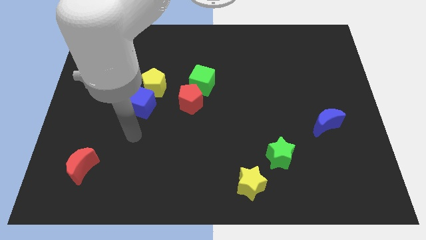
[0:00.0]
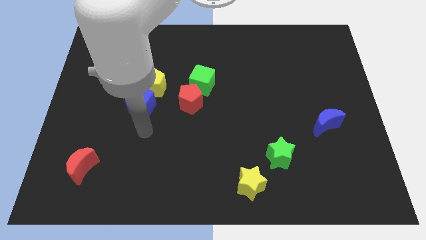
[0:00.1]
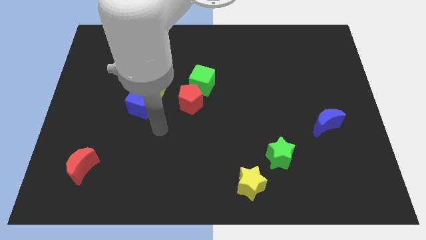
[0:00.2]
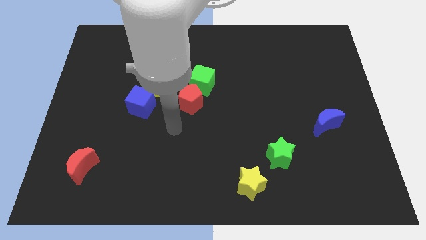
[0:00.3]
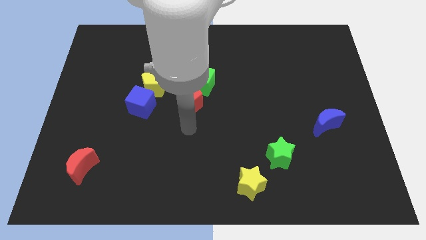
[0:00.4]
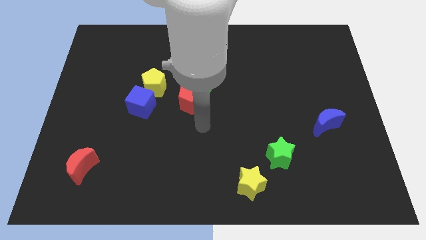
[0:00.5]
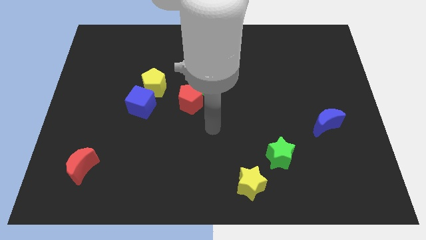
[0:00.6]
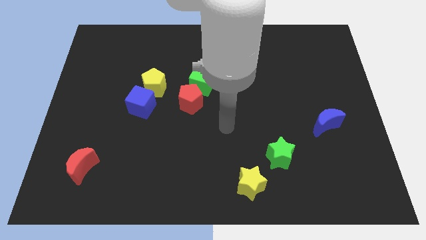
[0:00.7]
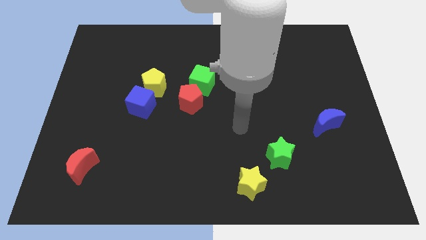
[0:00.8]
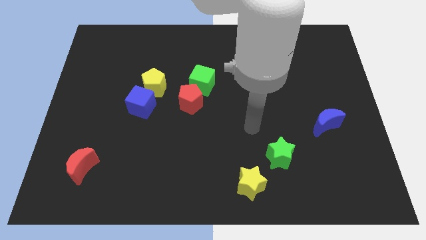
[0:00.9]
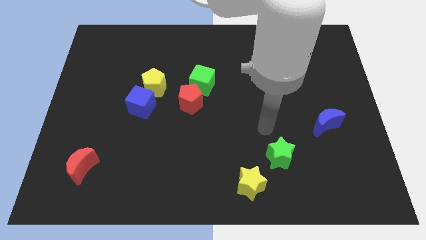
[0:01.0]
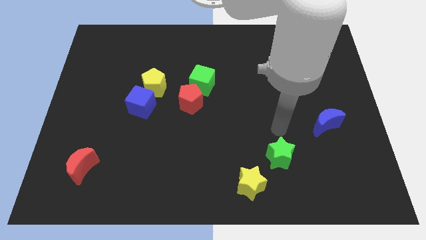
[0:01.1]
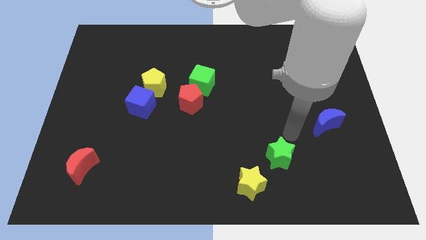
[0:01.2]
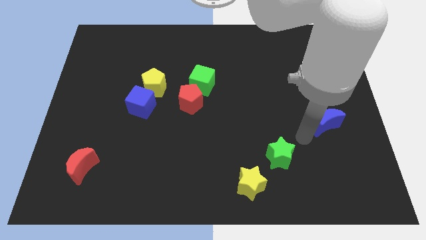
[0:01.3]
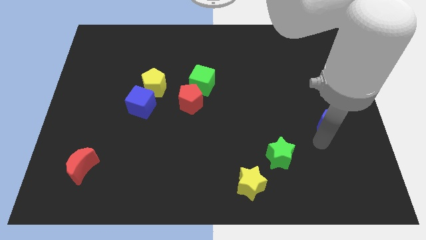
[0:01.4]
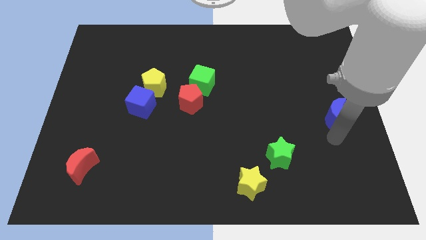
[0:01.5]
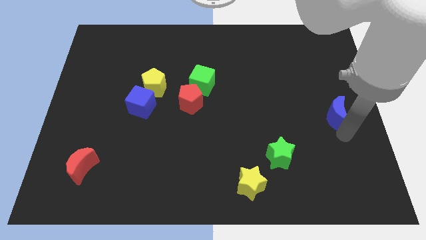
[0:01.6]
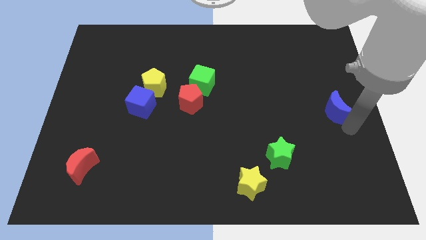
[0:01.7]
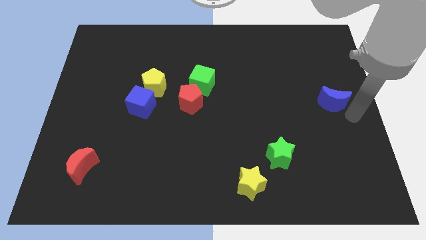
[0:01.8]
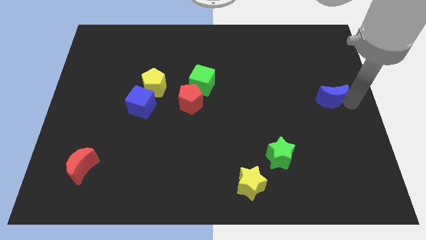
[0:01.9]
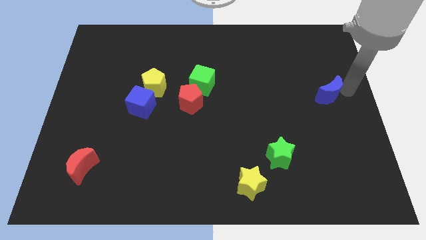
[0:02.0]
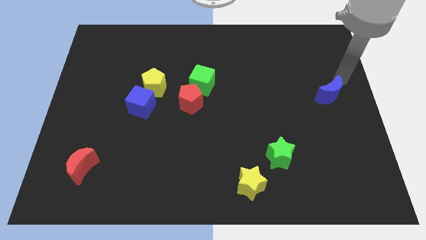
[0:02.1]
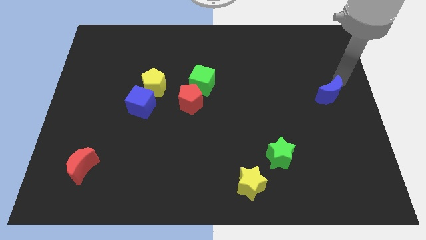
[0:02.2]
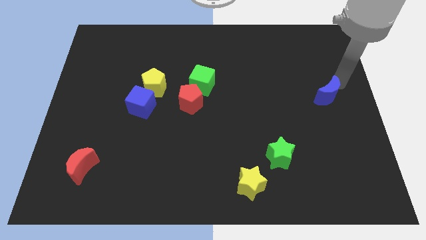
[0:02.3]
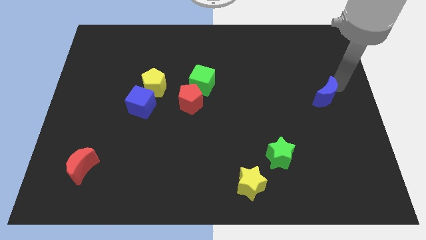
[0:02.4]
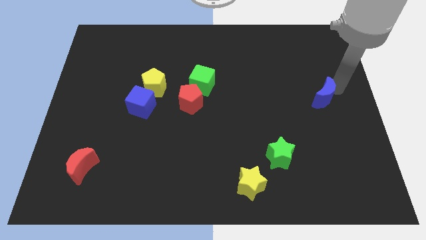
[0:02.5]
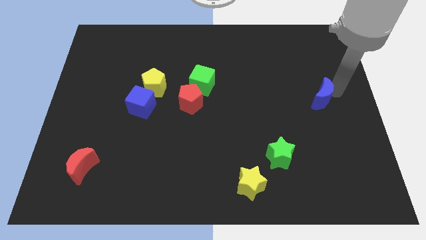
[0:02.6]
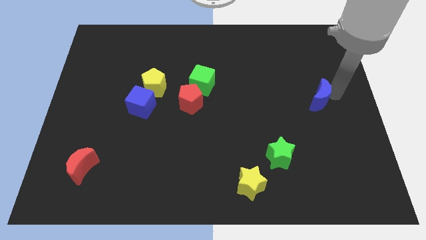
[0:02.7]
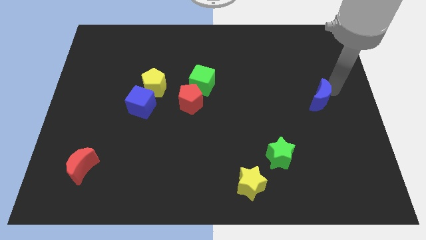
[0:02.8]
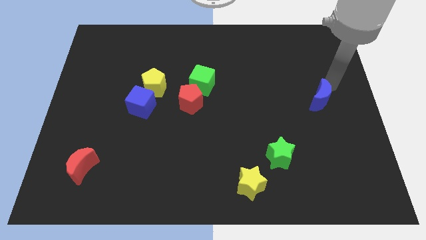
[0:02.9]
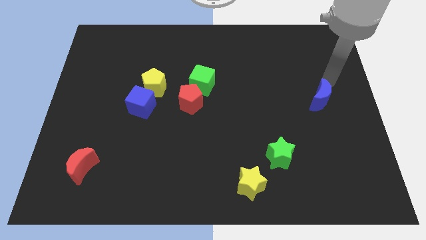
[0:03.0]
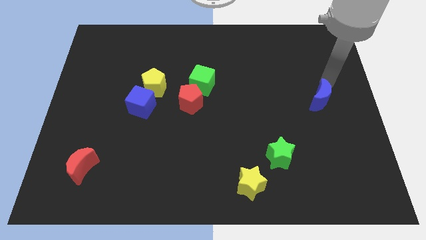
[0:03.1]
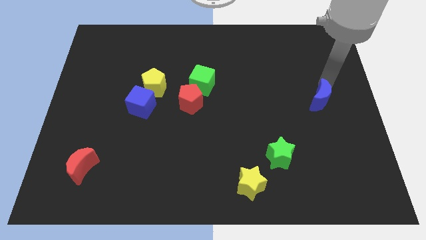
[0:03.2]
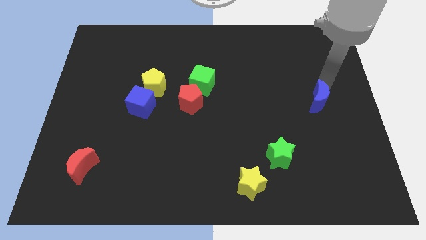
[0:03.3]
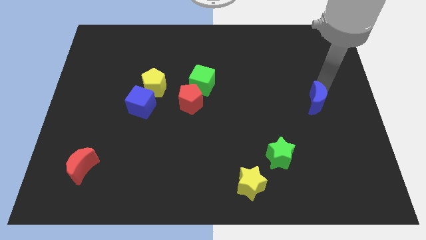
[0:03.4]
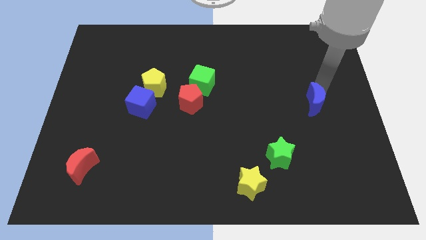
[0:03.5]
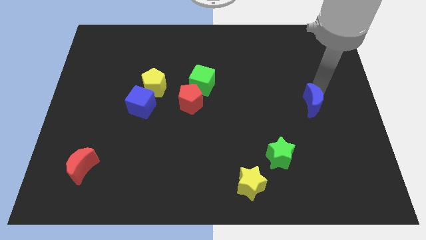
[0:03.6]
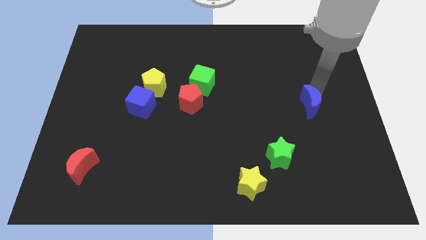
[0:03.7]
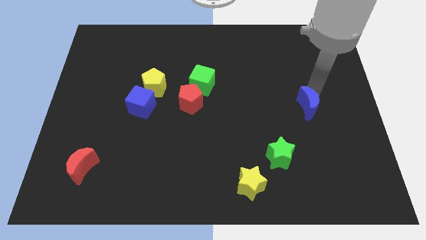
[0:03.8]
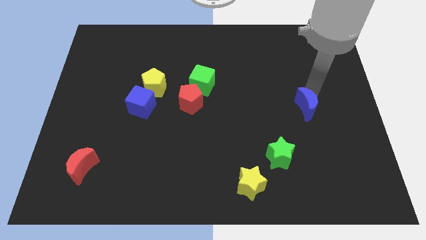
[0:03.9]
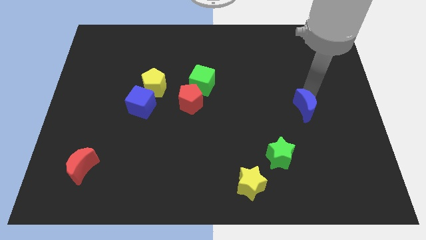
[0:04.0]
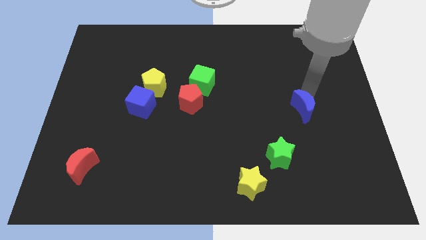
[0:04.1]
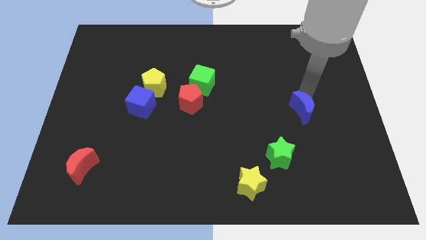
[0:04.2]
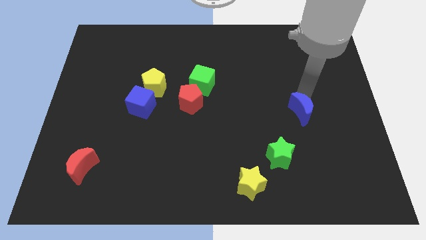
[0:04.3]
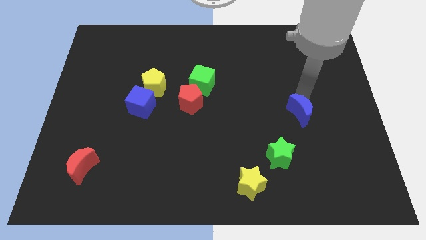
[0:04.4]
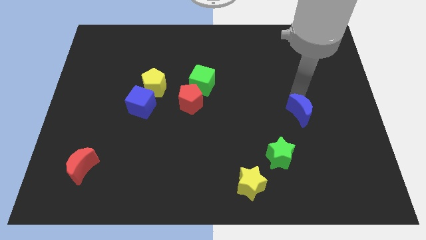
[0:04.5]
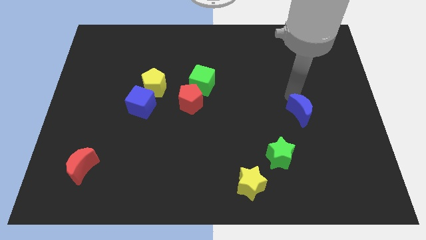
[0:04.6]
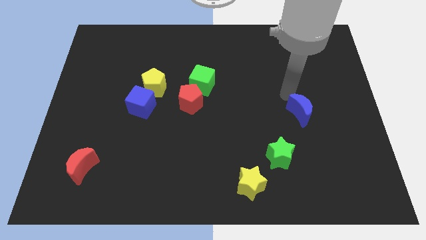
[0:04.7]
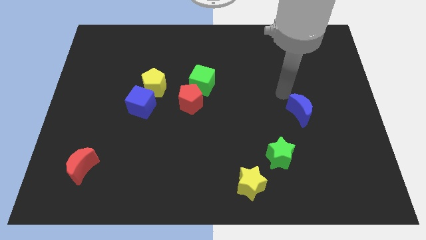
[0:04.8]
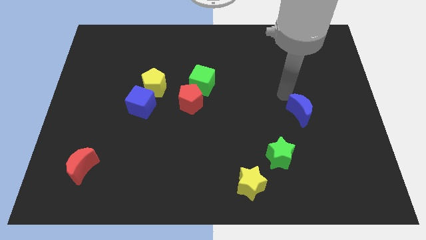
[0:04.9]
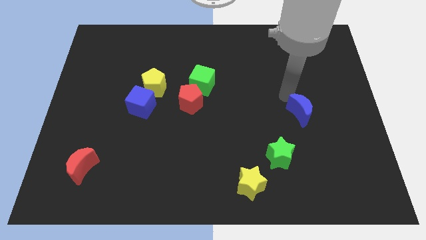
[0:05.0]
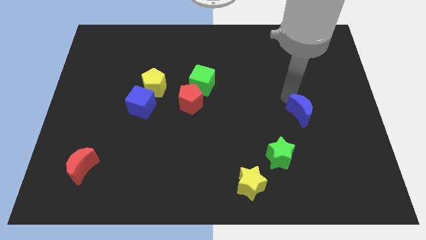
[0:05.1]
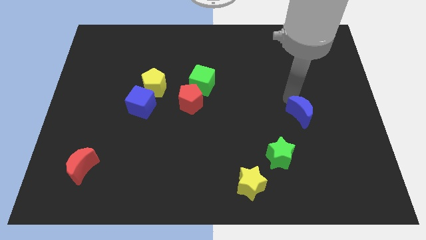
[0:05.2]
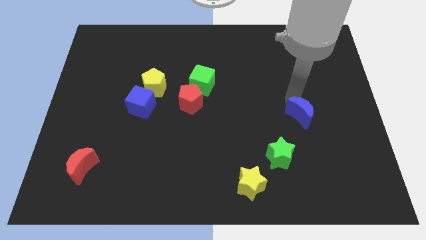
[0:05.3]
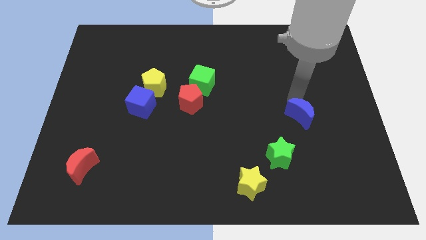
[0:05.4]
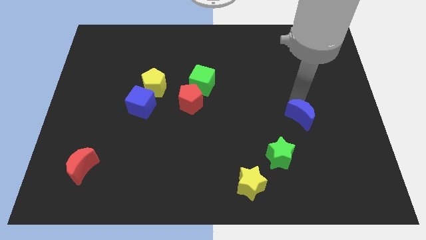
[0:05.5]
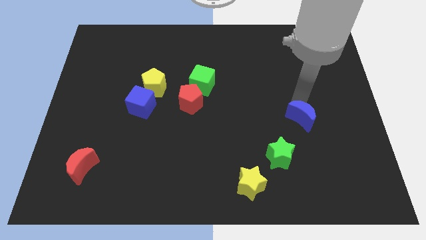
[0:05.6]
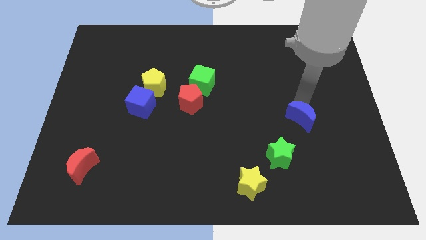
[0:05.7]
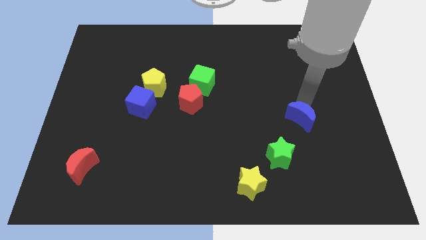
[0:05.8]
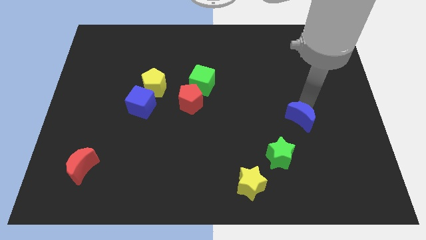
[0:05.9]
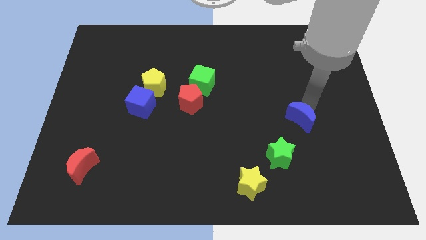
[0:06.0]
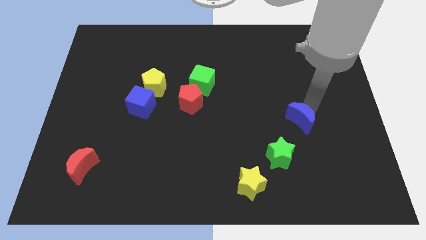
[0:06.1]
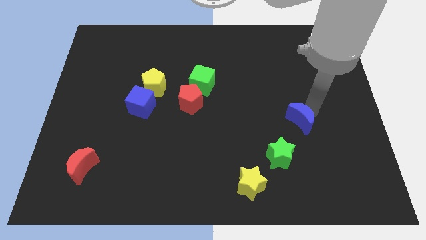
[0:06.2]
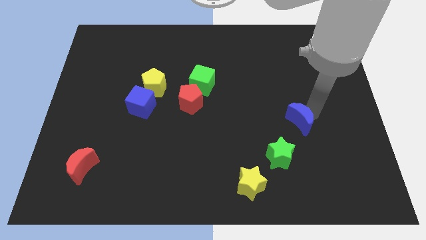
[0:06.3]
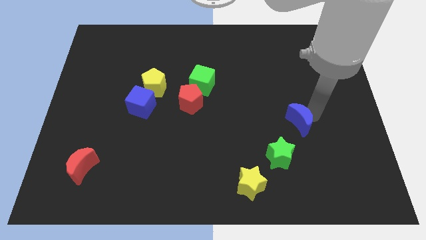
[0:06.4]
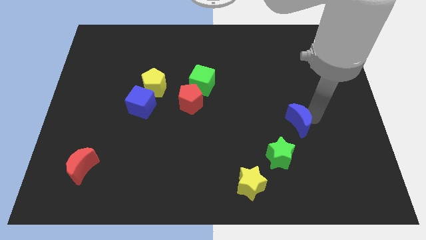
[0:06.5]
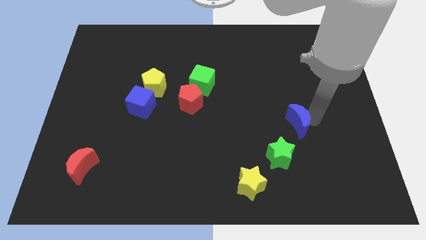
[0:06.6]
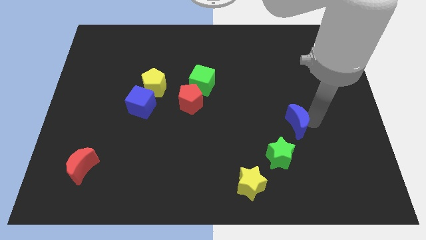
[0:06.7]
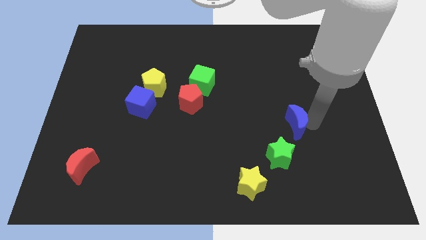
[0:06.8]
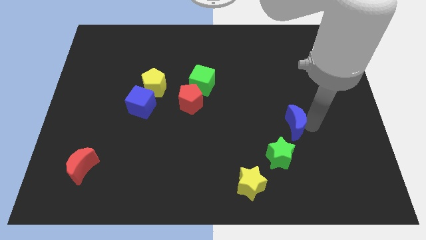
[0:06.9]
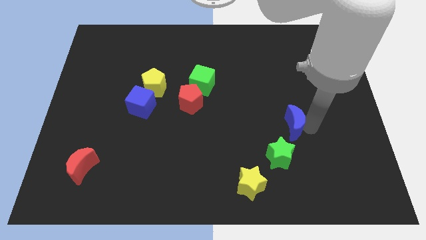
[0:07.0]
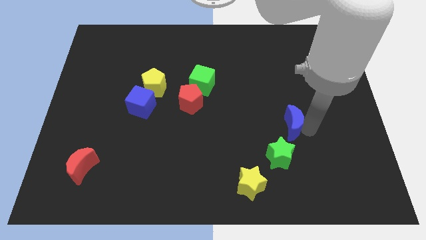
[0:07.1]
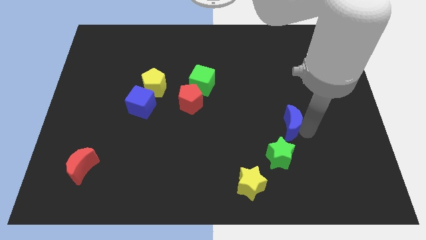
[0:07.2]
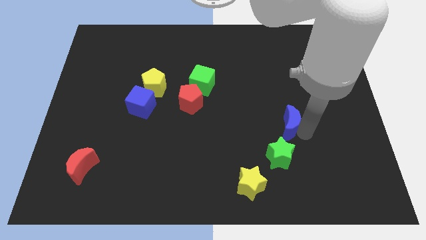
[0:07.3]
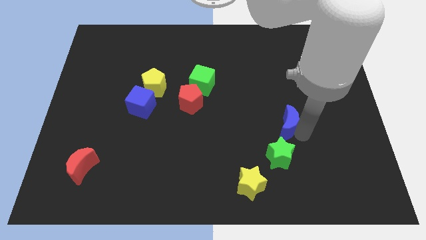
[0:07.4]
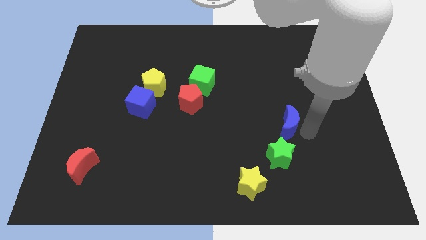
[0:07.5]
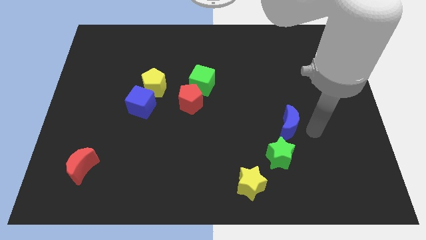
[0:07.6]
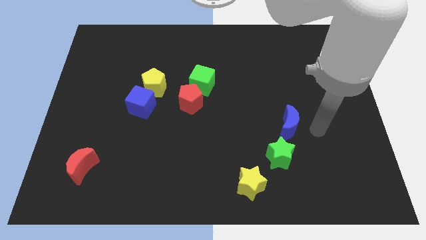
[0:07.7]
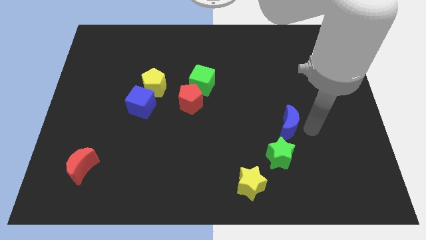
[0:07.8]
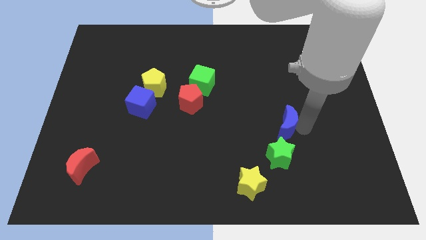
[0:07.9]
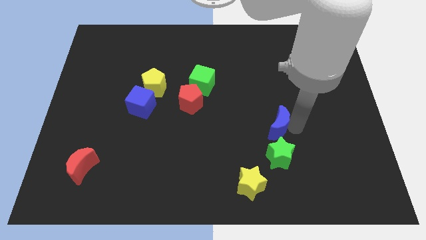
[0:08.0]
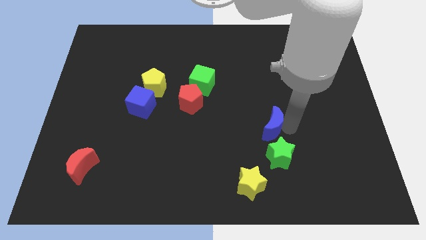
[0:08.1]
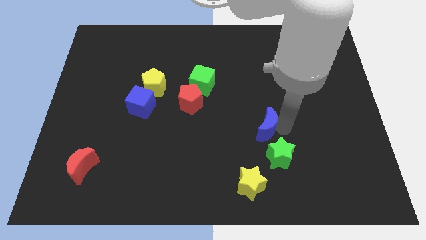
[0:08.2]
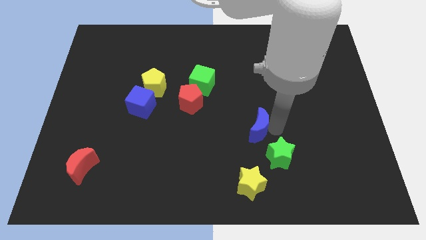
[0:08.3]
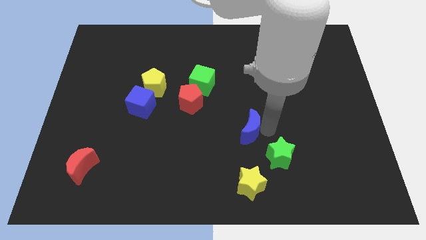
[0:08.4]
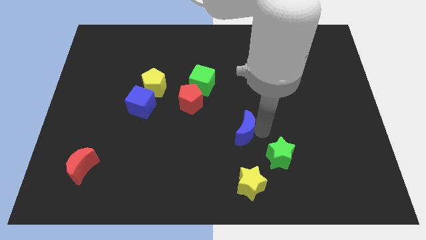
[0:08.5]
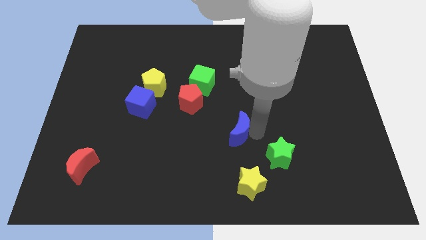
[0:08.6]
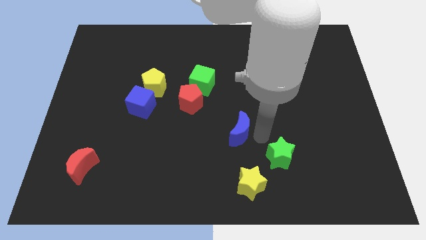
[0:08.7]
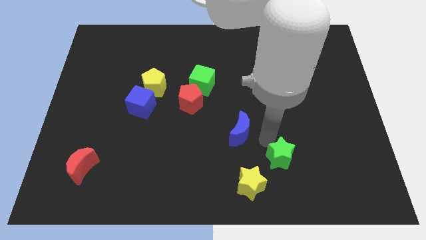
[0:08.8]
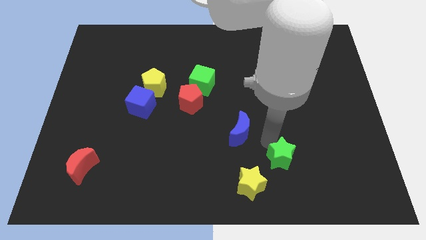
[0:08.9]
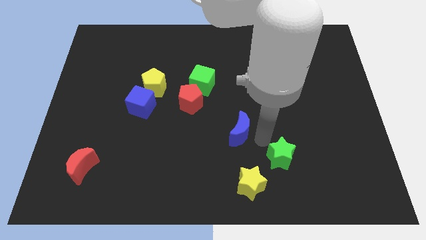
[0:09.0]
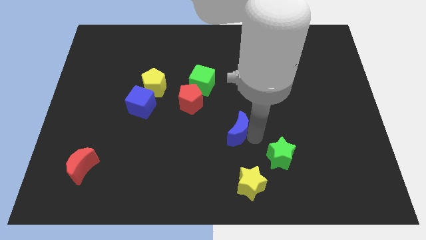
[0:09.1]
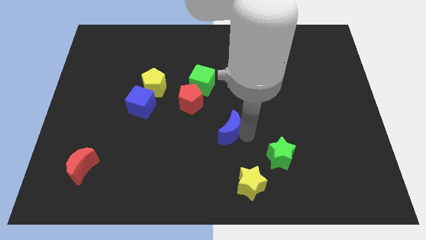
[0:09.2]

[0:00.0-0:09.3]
slide the blue moon to the left
